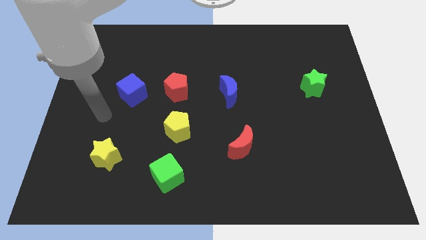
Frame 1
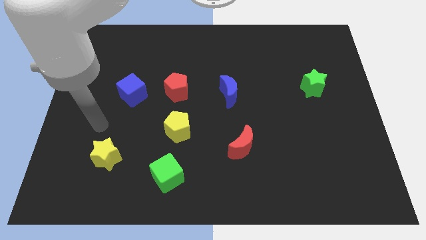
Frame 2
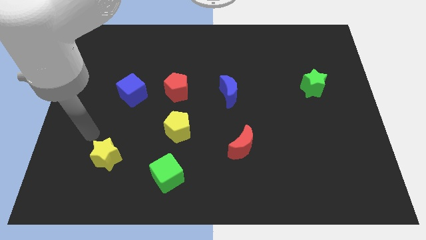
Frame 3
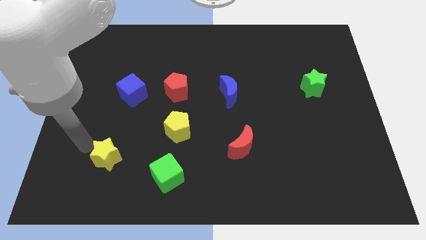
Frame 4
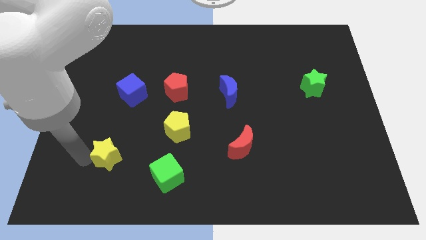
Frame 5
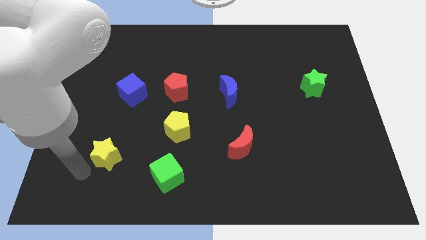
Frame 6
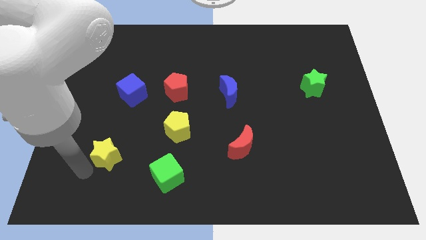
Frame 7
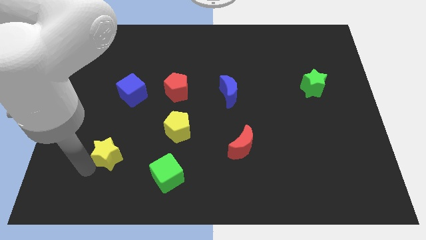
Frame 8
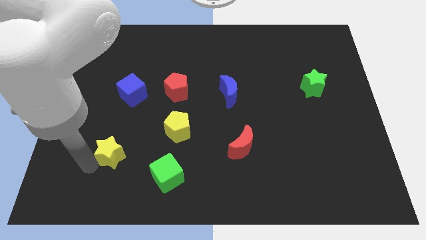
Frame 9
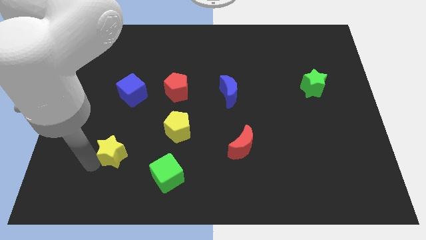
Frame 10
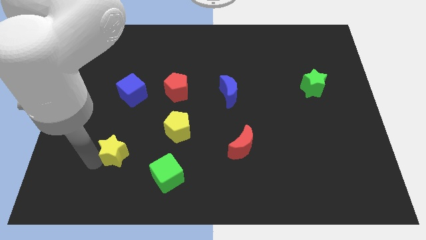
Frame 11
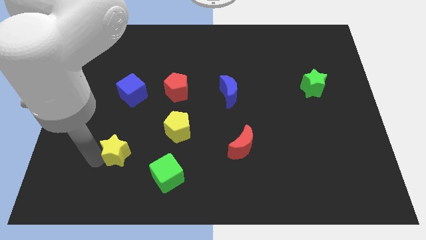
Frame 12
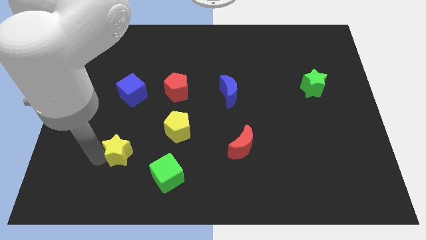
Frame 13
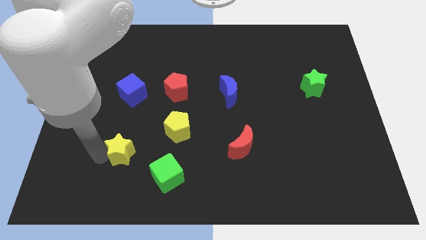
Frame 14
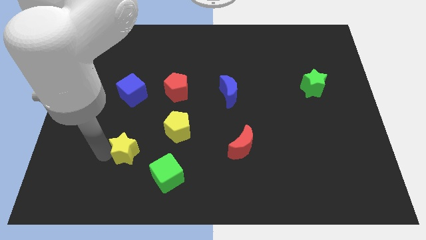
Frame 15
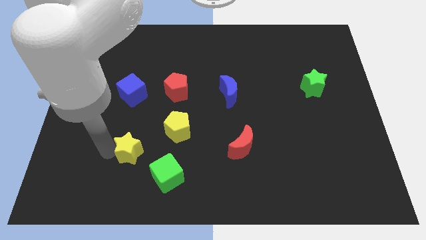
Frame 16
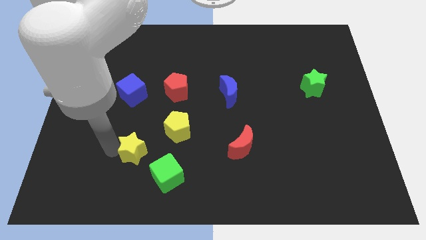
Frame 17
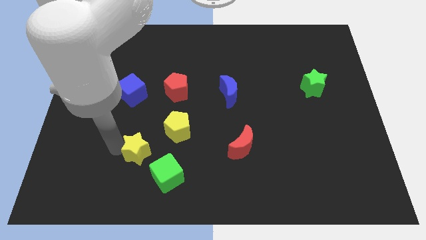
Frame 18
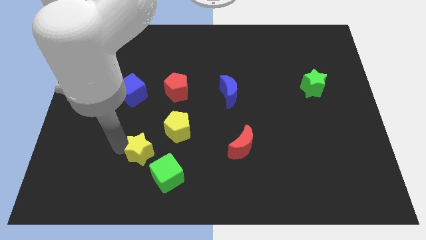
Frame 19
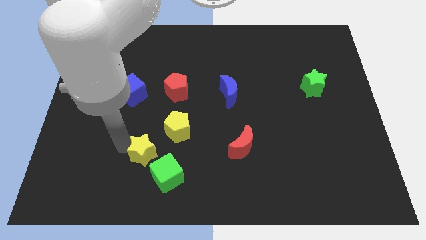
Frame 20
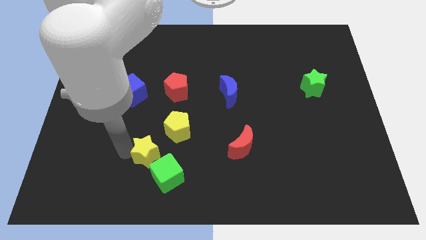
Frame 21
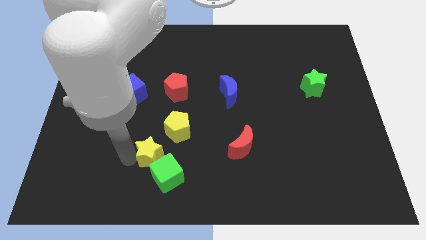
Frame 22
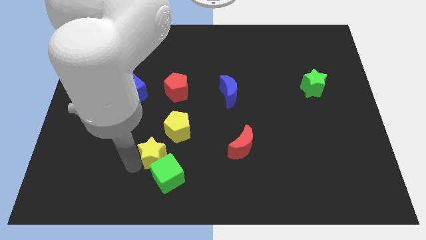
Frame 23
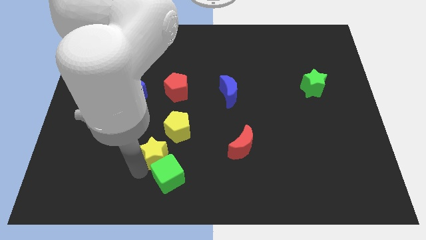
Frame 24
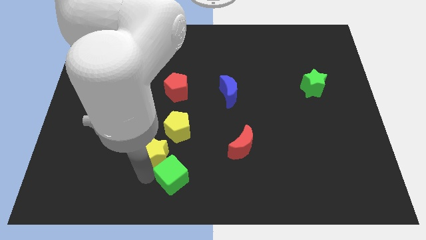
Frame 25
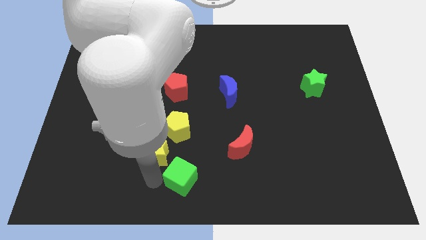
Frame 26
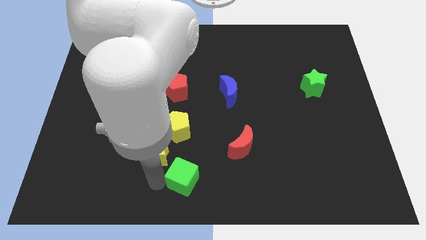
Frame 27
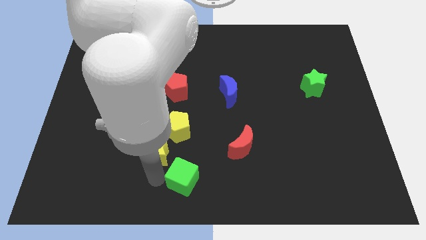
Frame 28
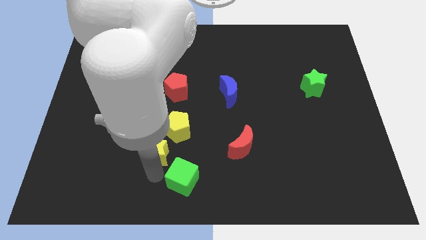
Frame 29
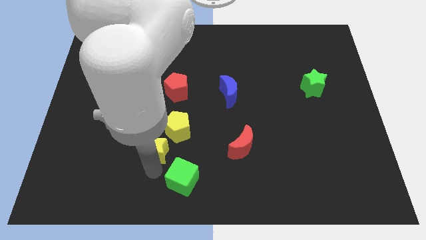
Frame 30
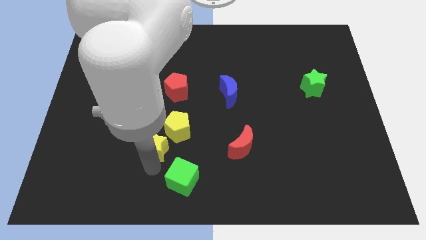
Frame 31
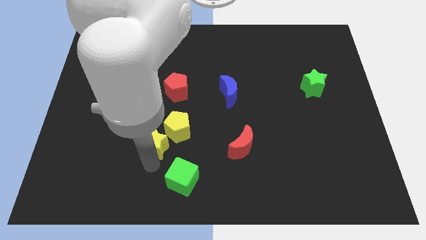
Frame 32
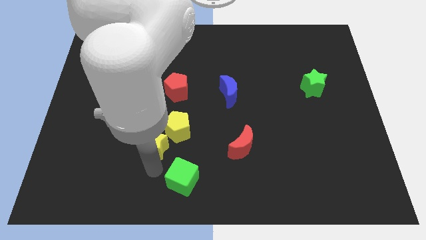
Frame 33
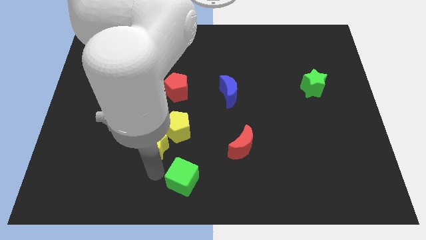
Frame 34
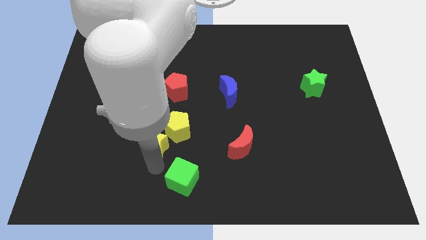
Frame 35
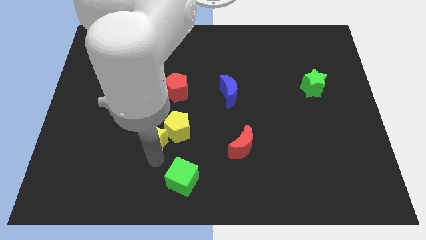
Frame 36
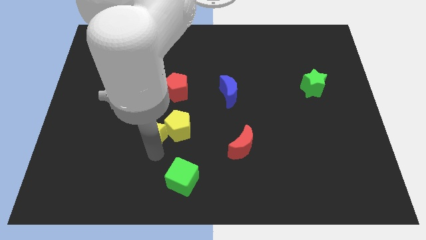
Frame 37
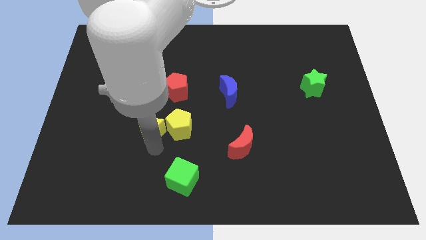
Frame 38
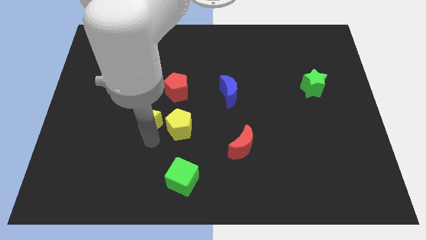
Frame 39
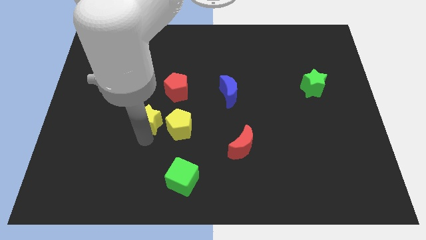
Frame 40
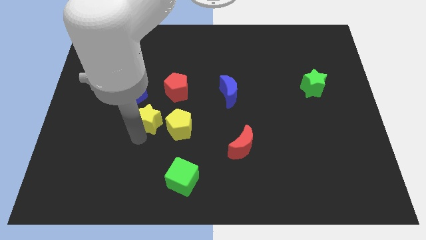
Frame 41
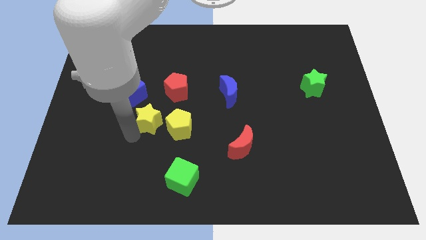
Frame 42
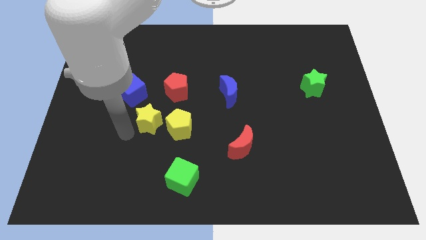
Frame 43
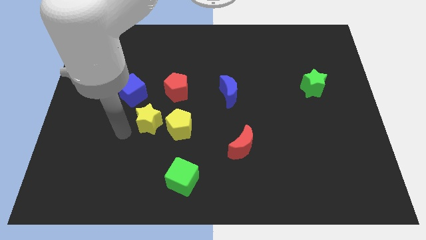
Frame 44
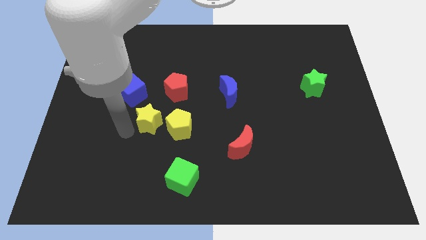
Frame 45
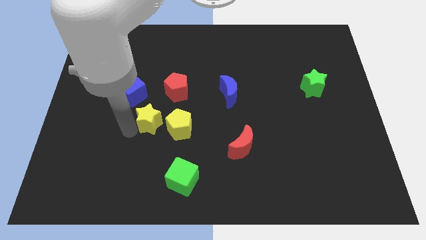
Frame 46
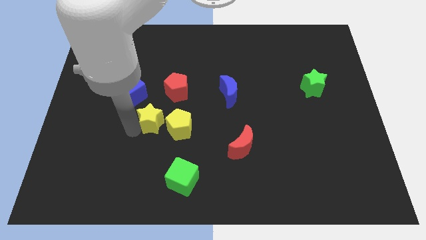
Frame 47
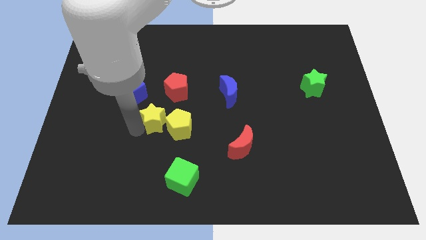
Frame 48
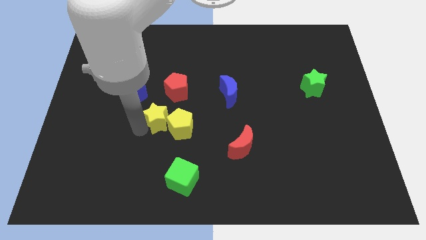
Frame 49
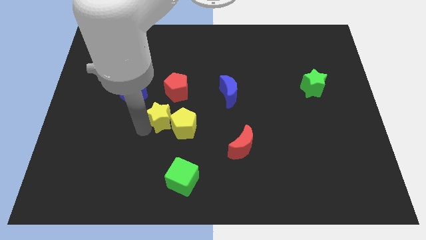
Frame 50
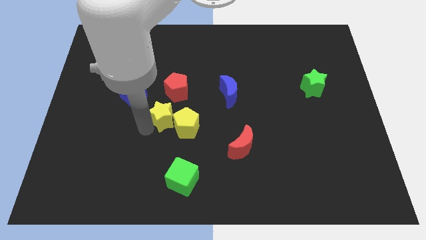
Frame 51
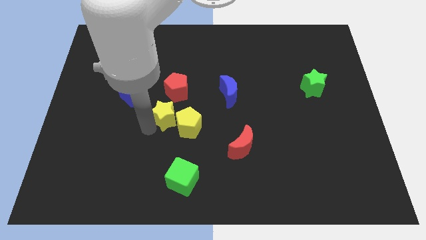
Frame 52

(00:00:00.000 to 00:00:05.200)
slide the yellow star to the middle of the board

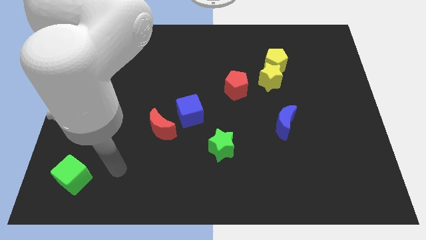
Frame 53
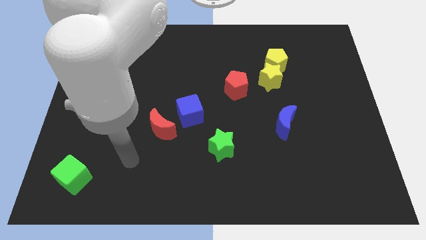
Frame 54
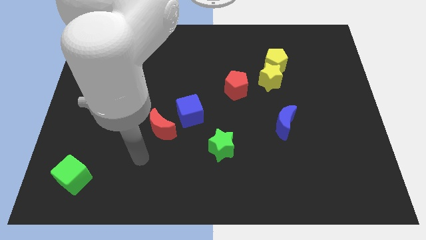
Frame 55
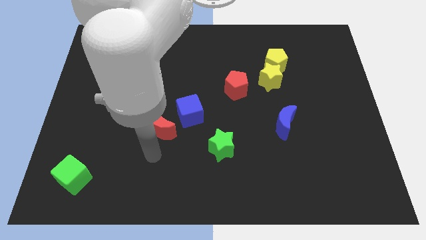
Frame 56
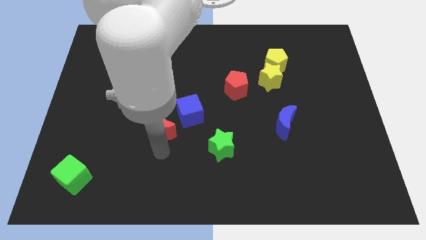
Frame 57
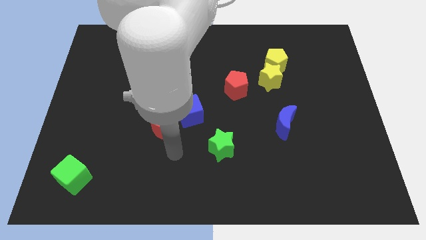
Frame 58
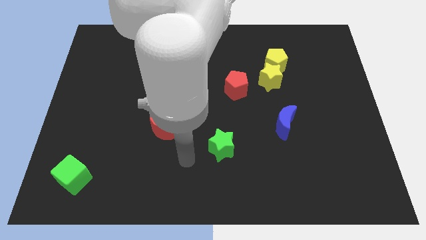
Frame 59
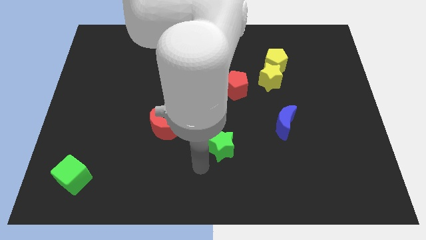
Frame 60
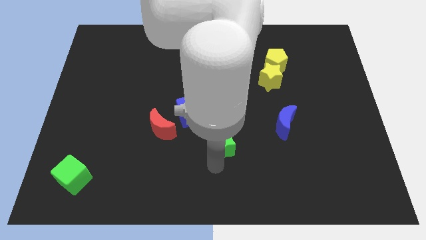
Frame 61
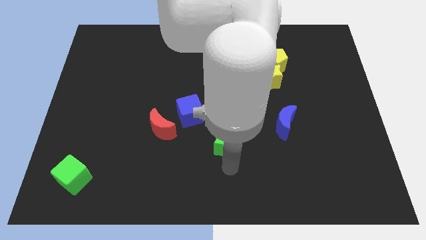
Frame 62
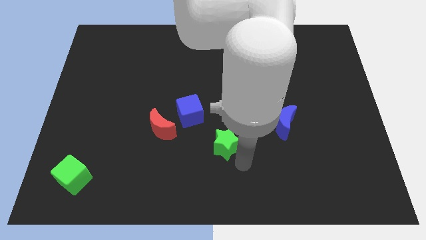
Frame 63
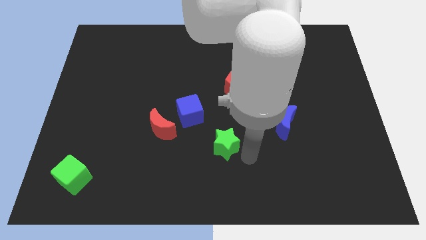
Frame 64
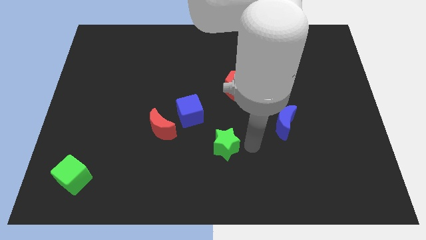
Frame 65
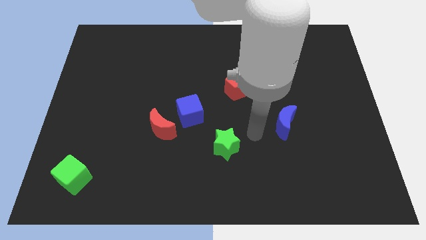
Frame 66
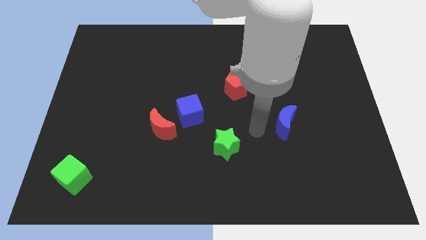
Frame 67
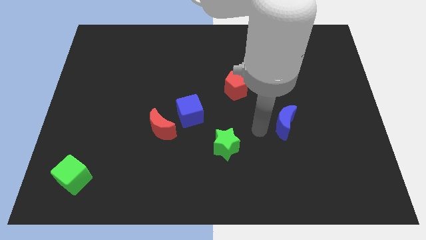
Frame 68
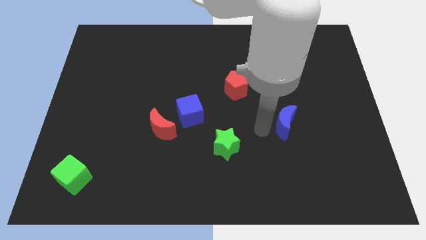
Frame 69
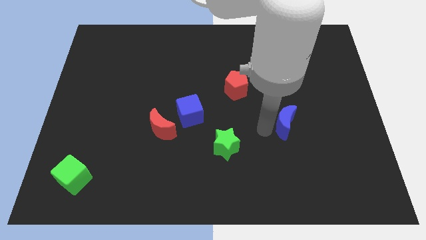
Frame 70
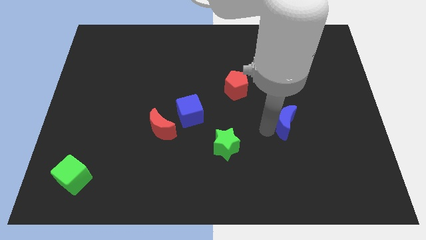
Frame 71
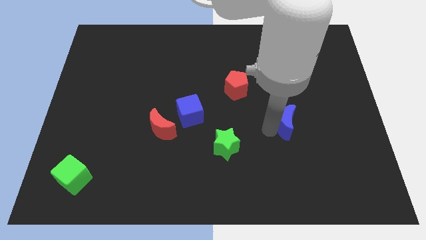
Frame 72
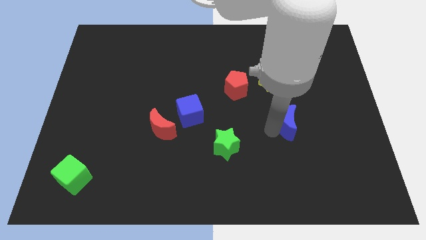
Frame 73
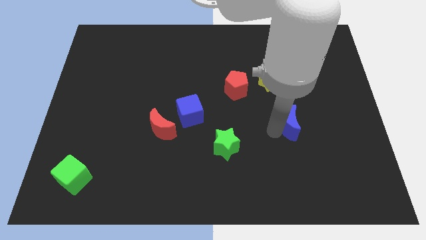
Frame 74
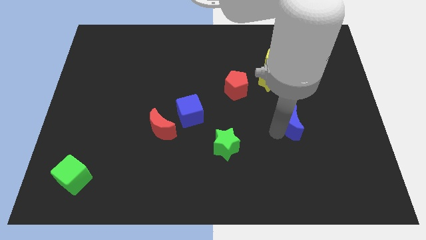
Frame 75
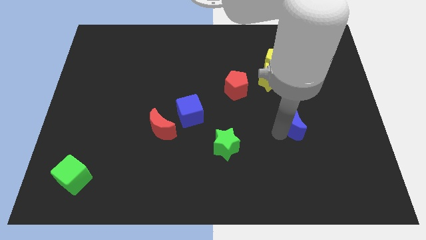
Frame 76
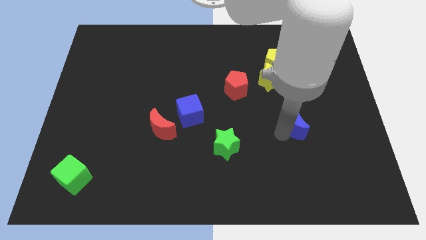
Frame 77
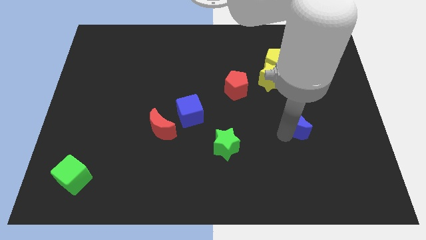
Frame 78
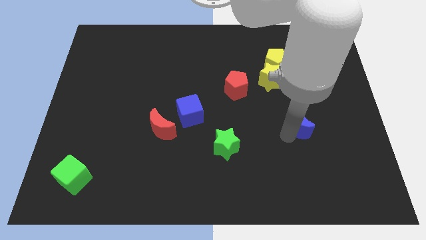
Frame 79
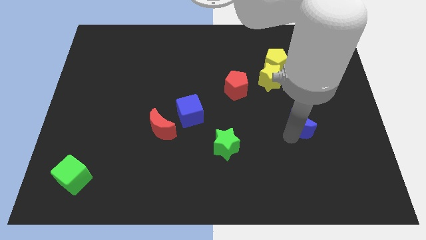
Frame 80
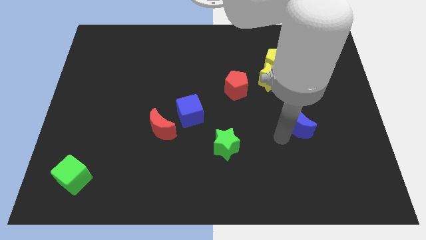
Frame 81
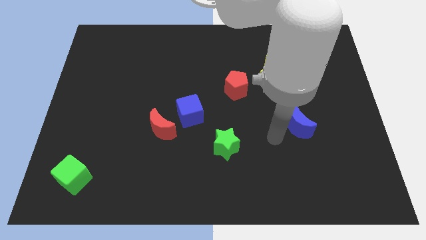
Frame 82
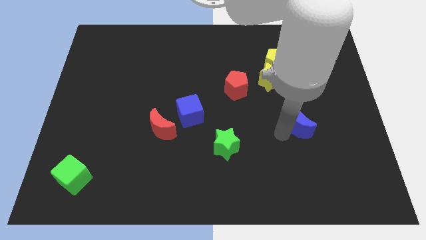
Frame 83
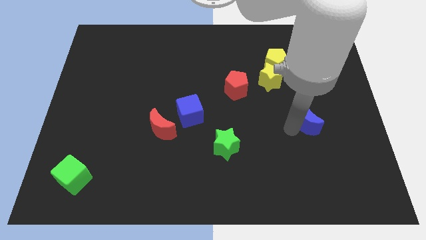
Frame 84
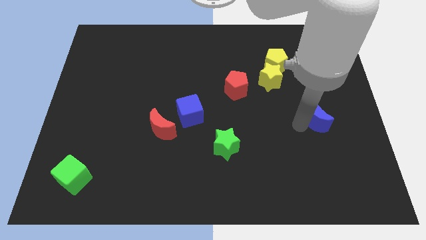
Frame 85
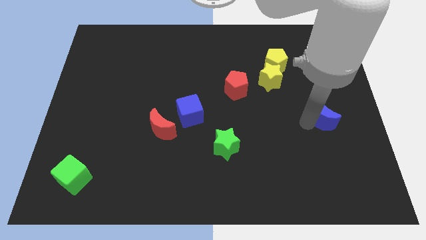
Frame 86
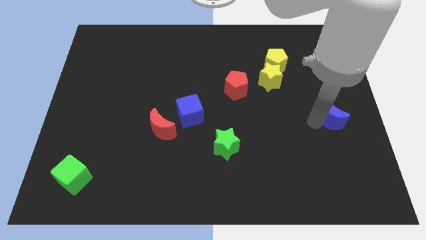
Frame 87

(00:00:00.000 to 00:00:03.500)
put the blue moon to the center right
